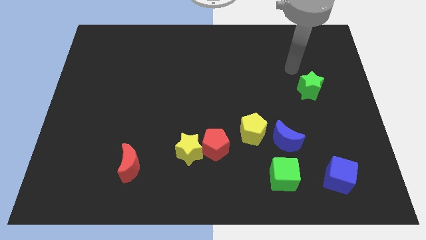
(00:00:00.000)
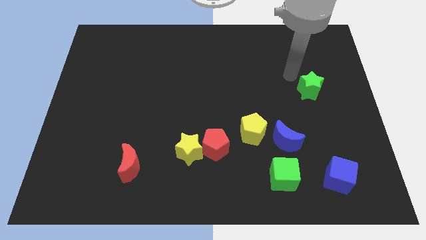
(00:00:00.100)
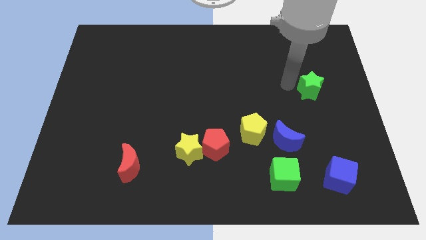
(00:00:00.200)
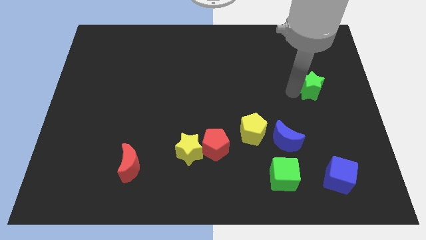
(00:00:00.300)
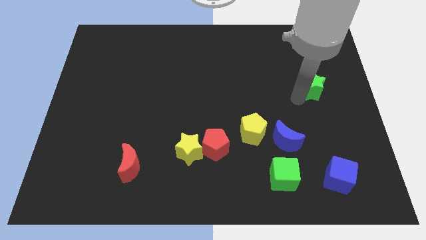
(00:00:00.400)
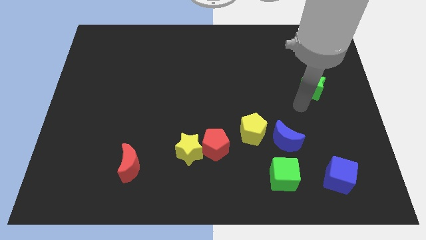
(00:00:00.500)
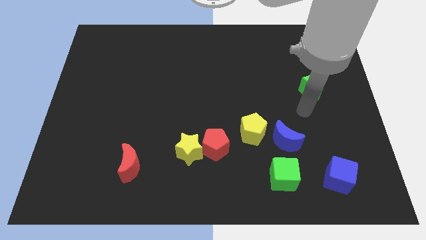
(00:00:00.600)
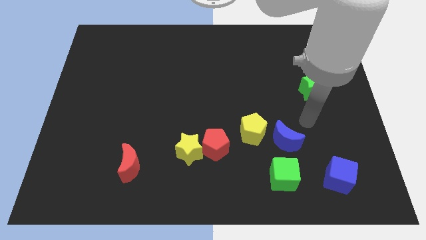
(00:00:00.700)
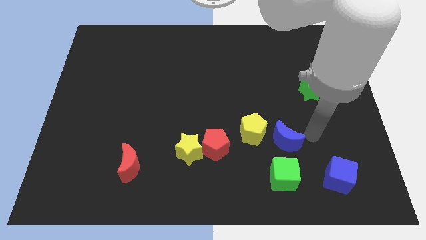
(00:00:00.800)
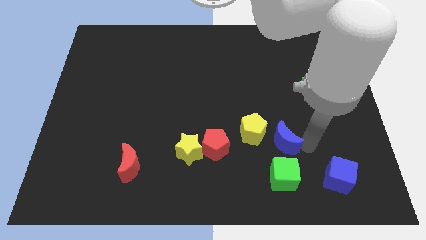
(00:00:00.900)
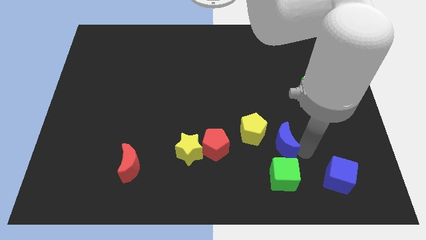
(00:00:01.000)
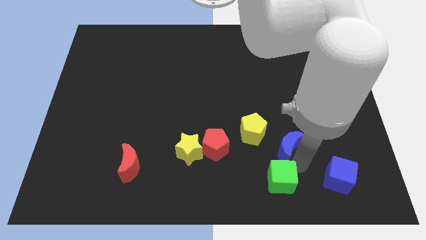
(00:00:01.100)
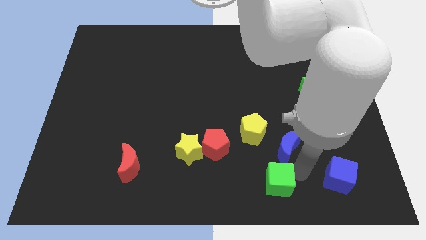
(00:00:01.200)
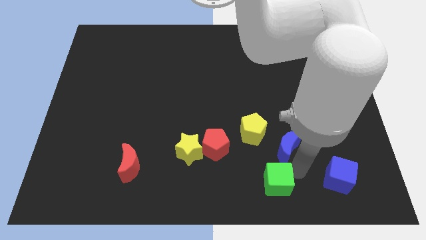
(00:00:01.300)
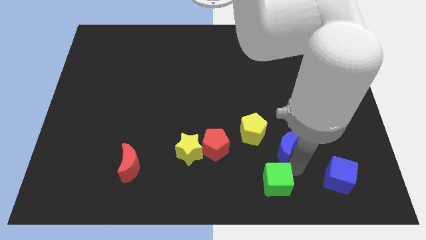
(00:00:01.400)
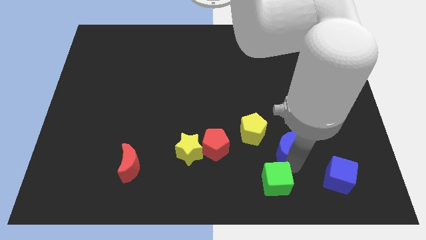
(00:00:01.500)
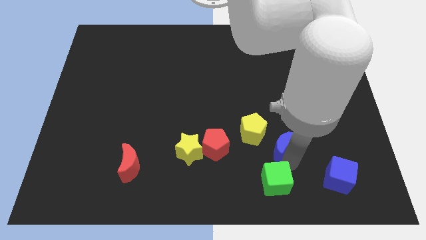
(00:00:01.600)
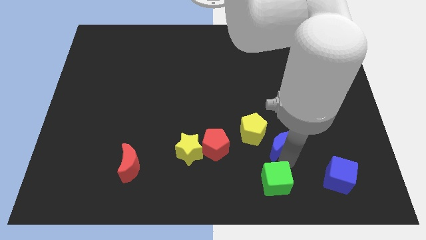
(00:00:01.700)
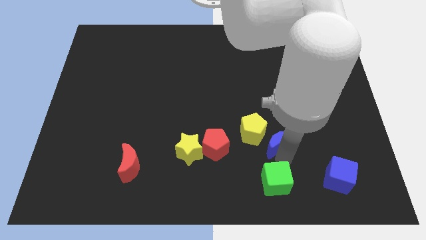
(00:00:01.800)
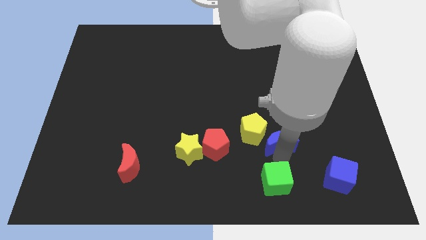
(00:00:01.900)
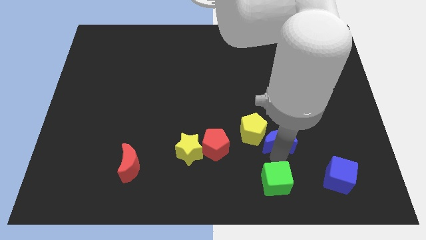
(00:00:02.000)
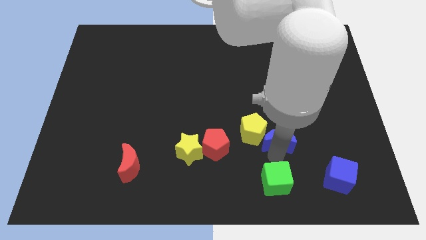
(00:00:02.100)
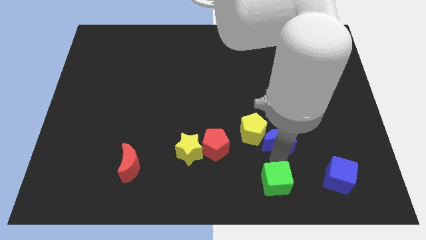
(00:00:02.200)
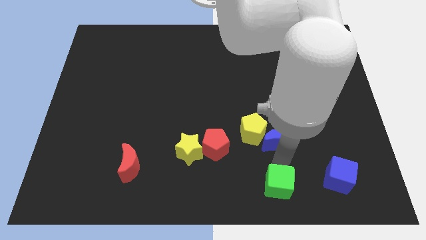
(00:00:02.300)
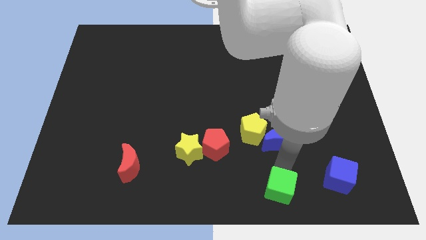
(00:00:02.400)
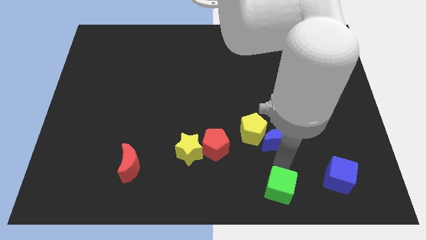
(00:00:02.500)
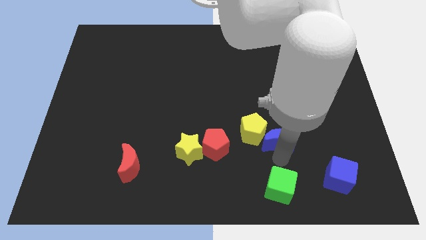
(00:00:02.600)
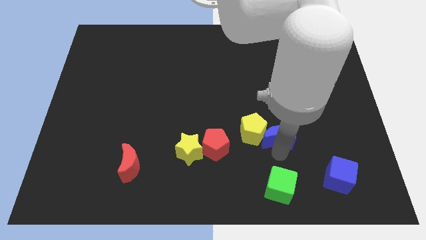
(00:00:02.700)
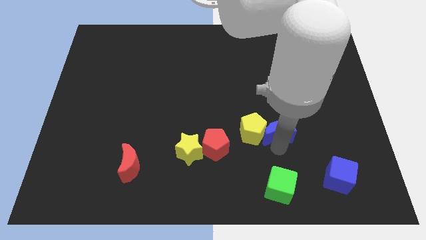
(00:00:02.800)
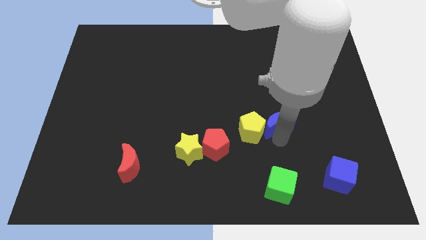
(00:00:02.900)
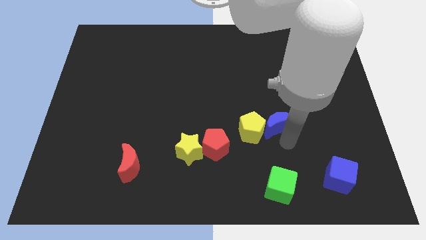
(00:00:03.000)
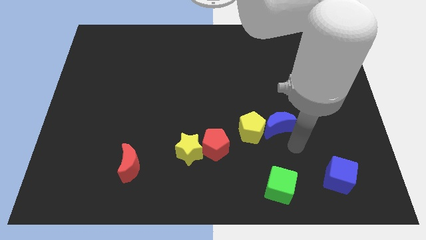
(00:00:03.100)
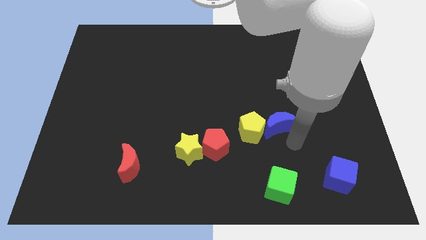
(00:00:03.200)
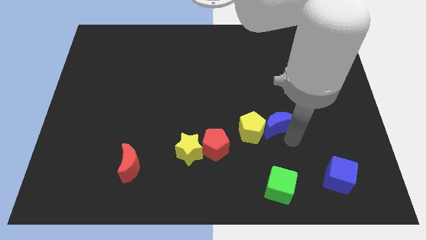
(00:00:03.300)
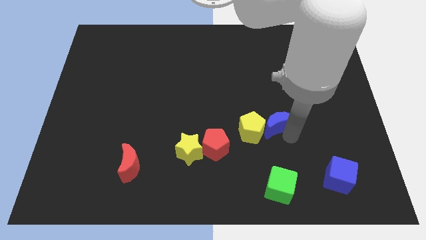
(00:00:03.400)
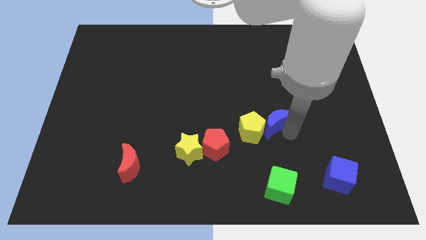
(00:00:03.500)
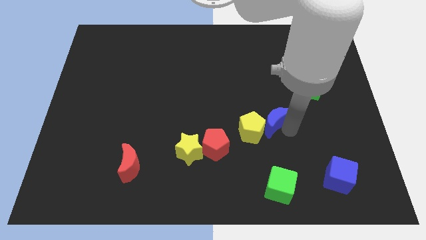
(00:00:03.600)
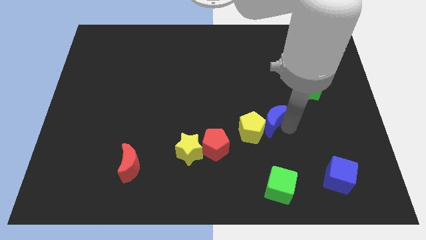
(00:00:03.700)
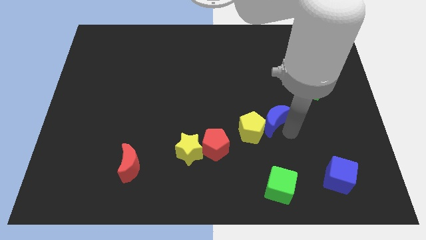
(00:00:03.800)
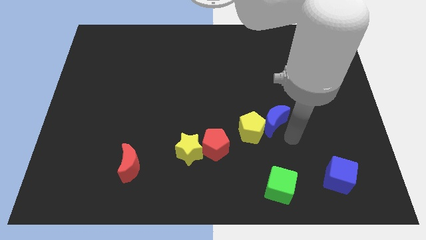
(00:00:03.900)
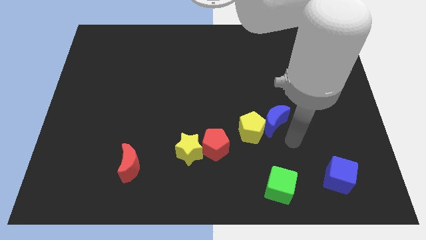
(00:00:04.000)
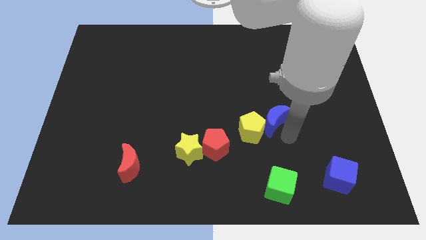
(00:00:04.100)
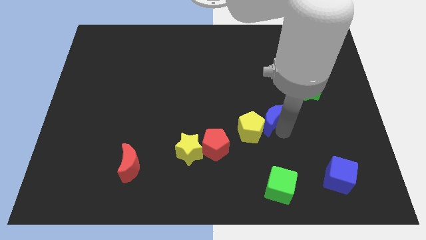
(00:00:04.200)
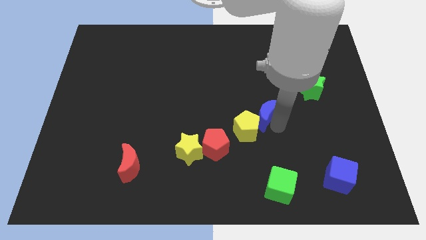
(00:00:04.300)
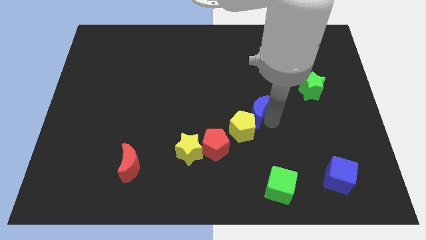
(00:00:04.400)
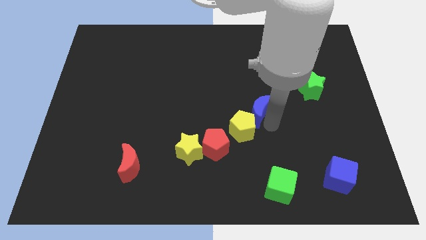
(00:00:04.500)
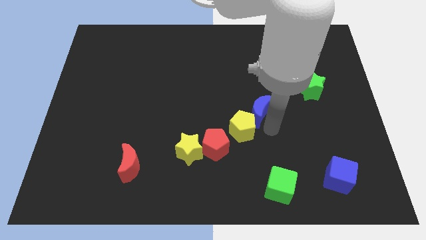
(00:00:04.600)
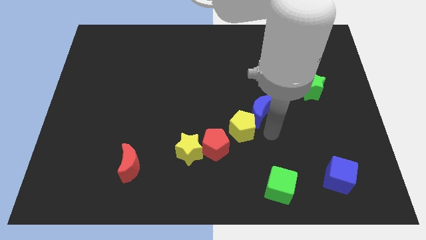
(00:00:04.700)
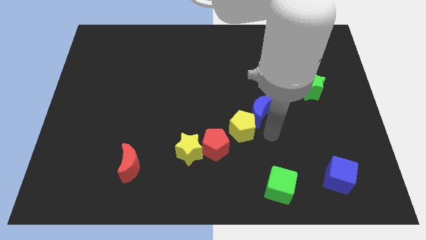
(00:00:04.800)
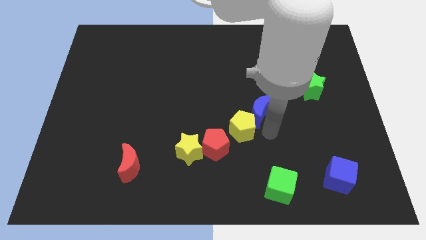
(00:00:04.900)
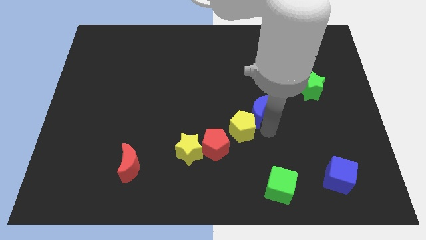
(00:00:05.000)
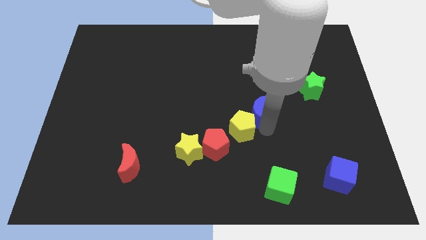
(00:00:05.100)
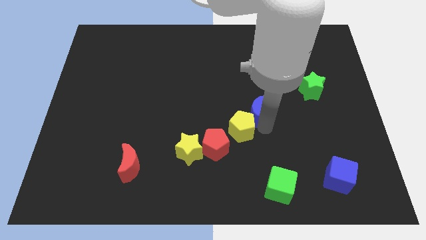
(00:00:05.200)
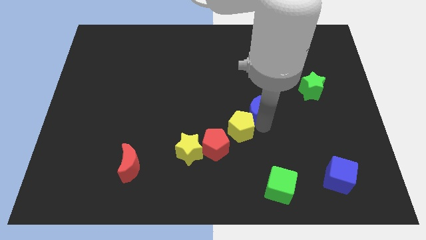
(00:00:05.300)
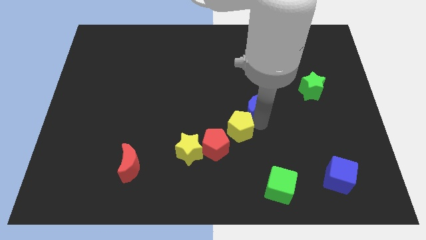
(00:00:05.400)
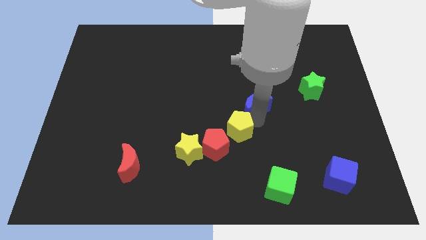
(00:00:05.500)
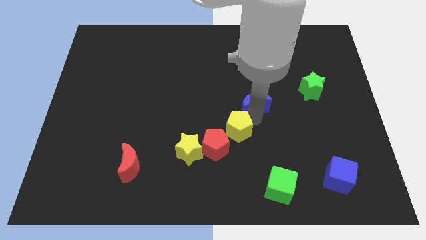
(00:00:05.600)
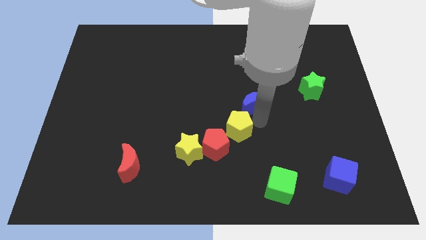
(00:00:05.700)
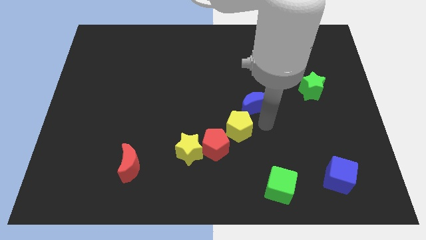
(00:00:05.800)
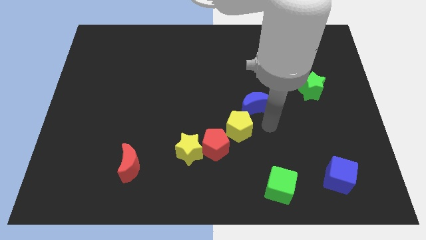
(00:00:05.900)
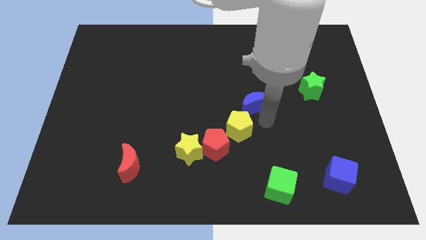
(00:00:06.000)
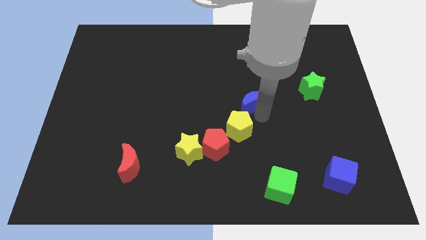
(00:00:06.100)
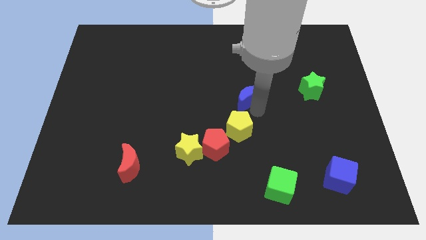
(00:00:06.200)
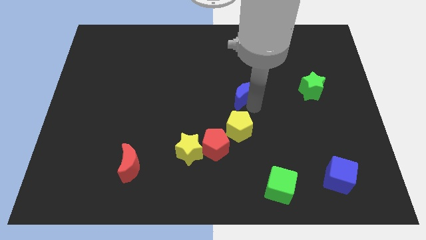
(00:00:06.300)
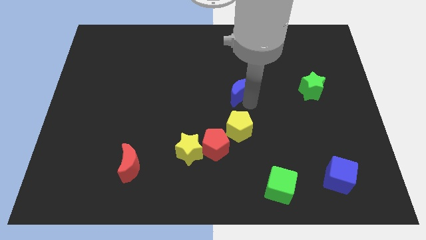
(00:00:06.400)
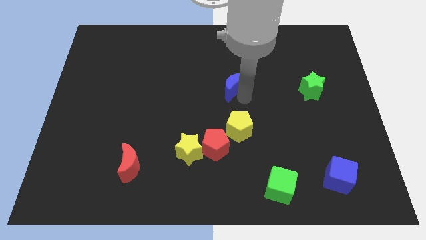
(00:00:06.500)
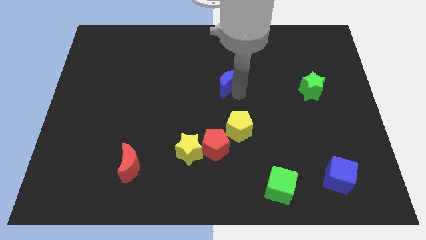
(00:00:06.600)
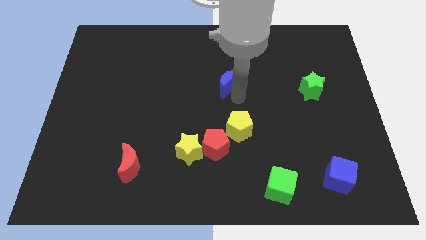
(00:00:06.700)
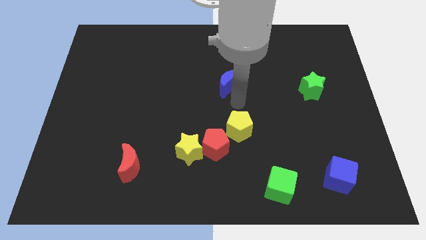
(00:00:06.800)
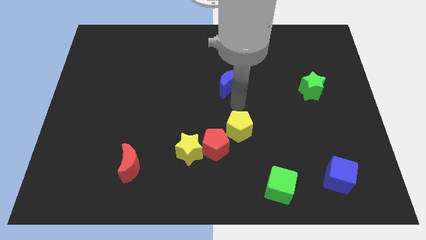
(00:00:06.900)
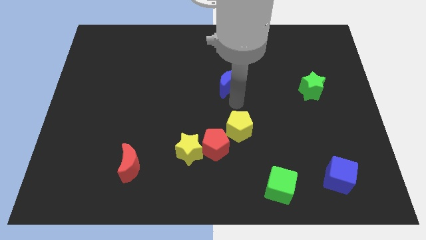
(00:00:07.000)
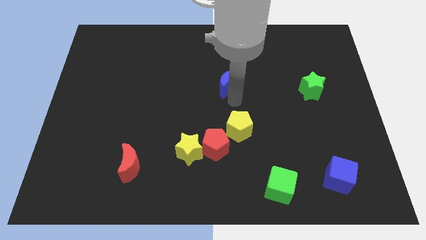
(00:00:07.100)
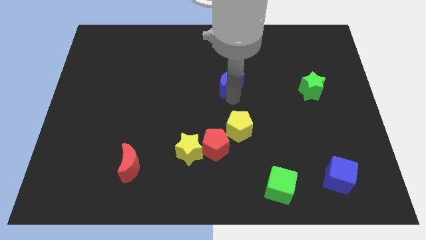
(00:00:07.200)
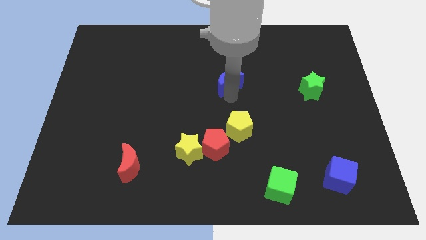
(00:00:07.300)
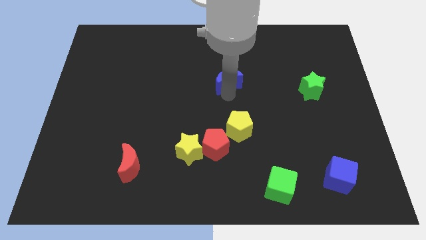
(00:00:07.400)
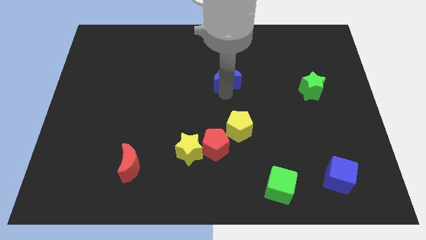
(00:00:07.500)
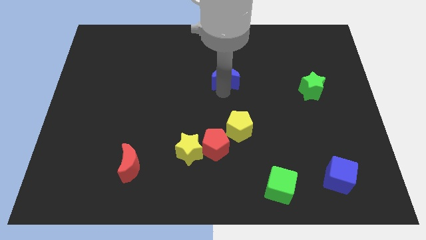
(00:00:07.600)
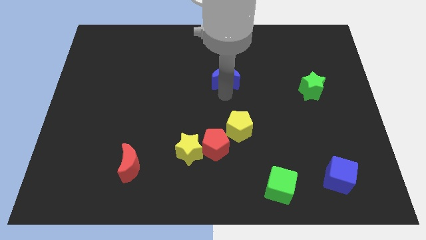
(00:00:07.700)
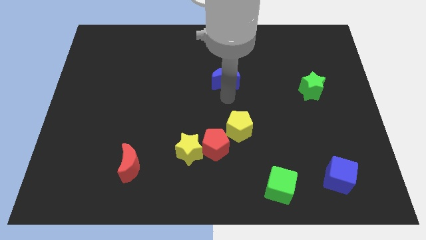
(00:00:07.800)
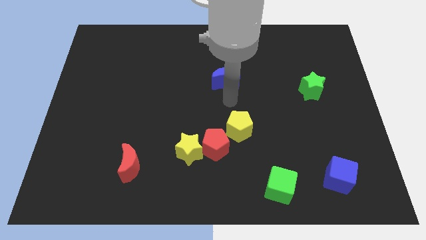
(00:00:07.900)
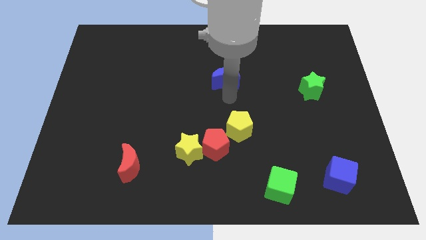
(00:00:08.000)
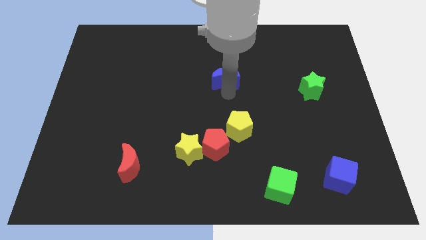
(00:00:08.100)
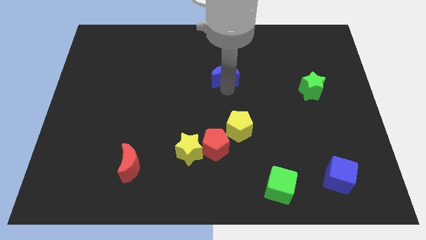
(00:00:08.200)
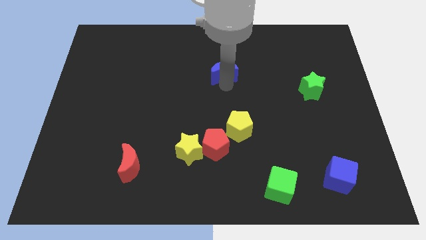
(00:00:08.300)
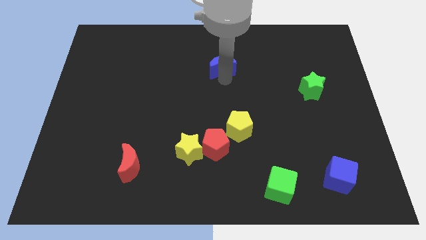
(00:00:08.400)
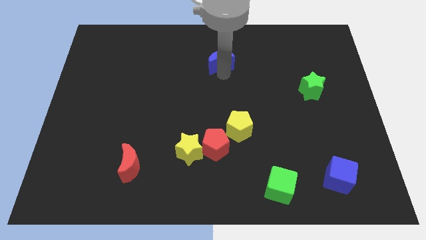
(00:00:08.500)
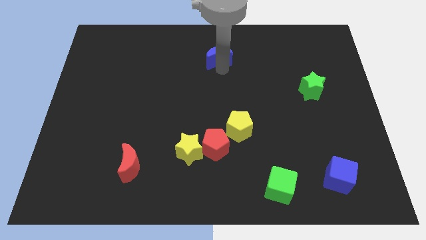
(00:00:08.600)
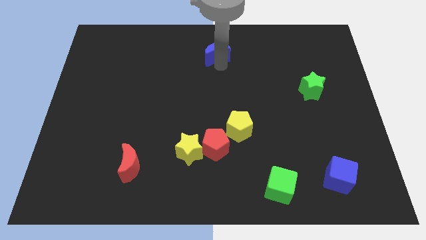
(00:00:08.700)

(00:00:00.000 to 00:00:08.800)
push the blue moon to the towards your base
